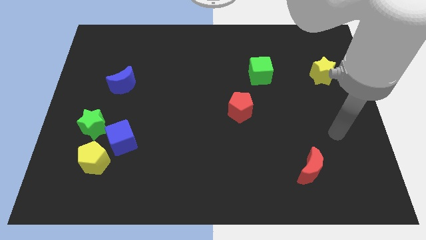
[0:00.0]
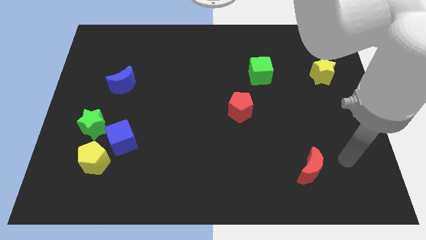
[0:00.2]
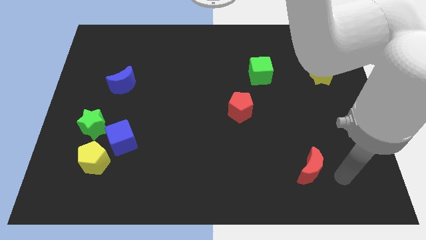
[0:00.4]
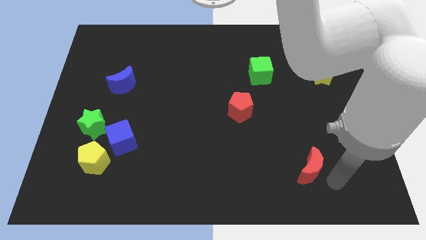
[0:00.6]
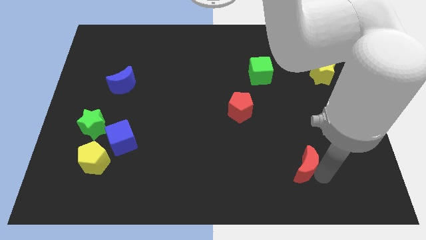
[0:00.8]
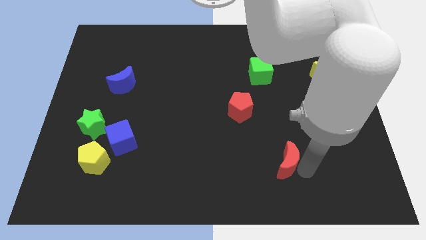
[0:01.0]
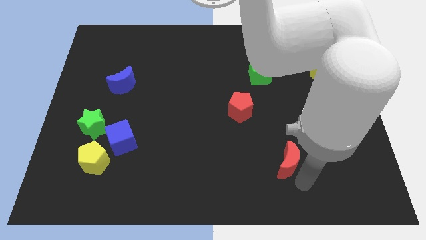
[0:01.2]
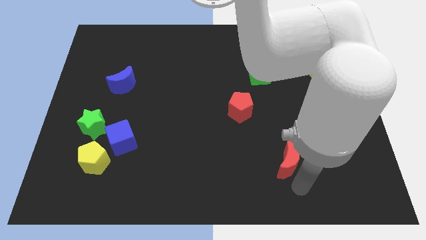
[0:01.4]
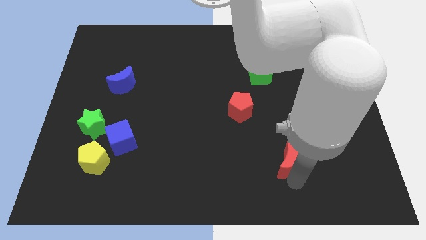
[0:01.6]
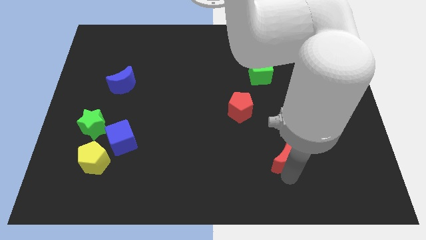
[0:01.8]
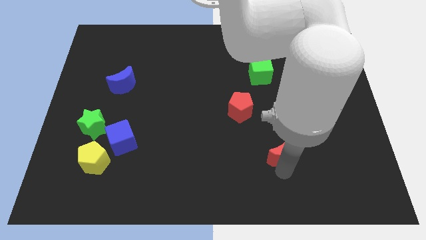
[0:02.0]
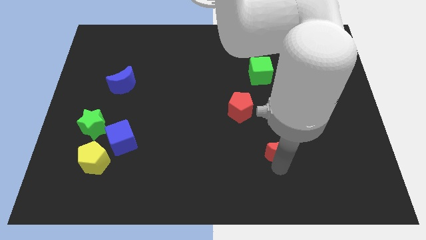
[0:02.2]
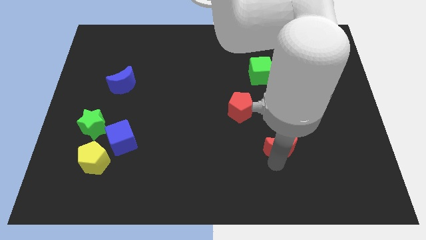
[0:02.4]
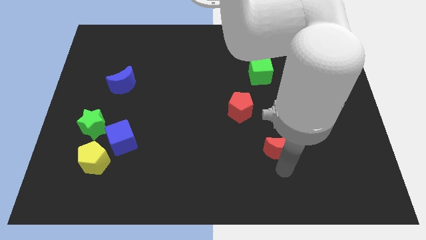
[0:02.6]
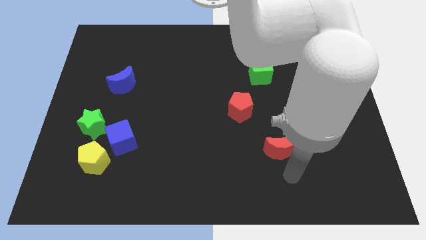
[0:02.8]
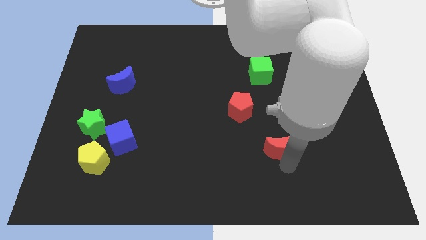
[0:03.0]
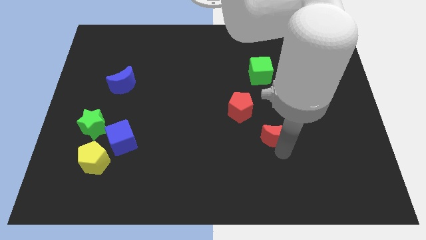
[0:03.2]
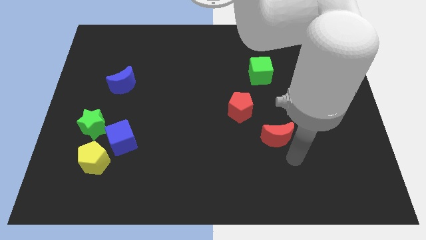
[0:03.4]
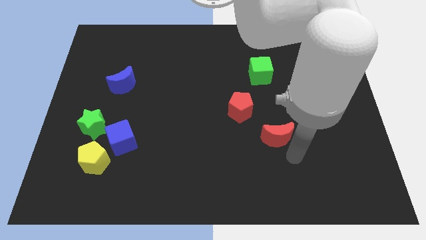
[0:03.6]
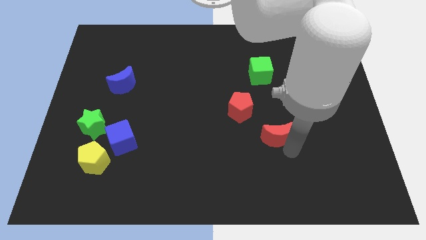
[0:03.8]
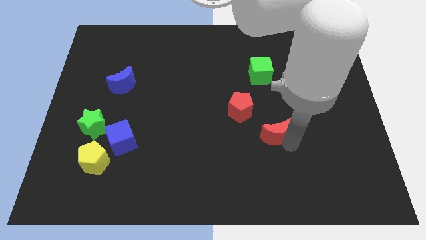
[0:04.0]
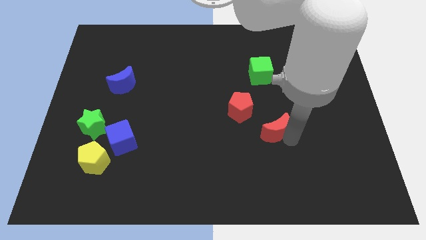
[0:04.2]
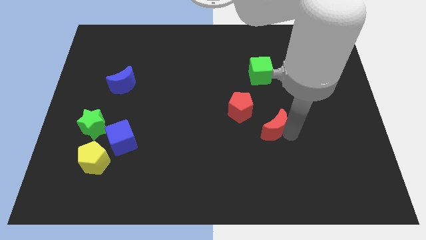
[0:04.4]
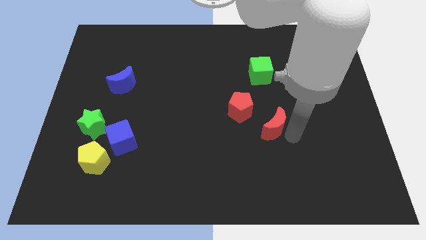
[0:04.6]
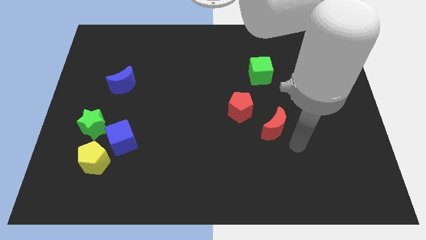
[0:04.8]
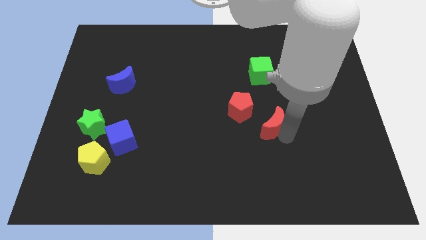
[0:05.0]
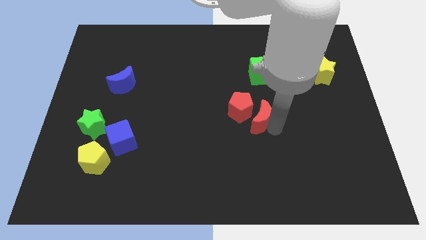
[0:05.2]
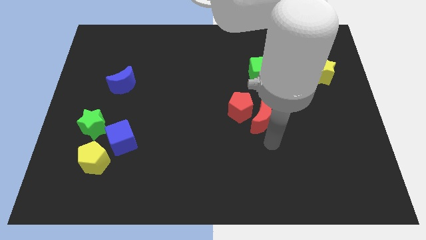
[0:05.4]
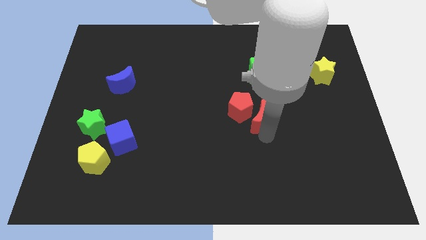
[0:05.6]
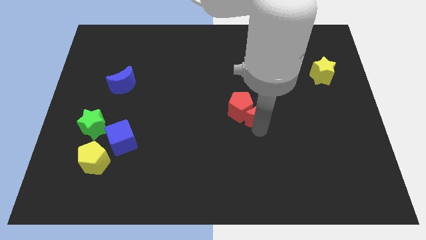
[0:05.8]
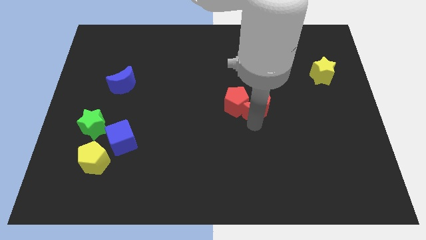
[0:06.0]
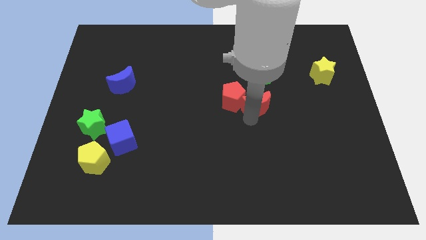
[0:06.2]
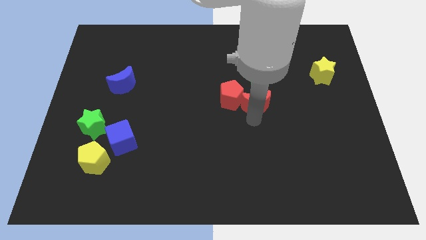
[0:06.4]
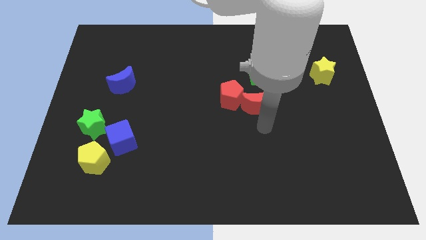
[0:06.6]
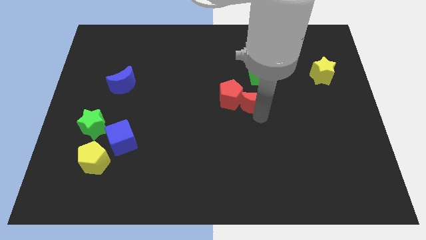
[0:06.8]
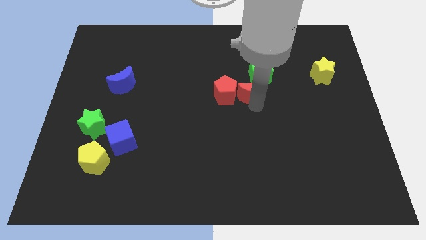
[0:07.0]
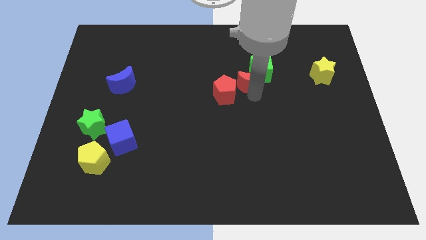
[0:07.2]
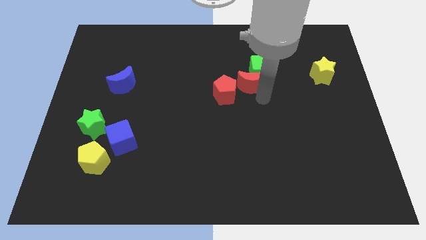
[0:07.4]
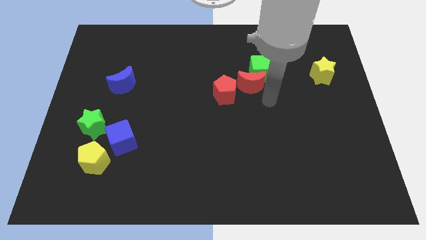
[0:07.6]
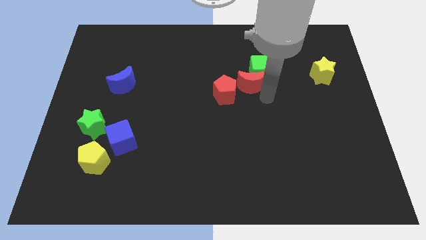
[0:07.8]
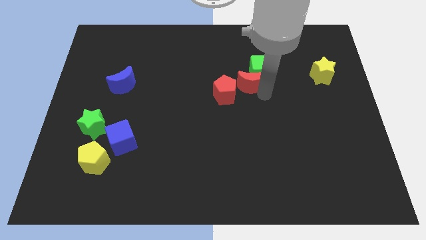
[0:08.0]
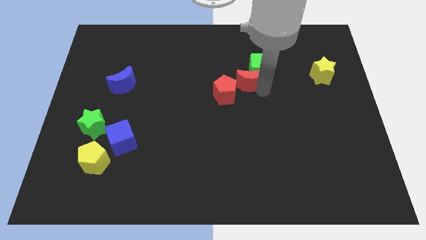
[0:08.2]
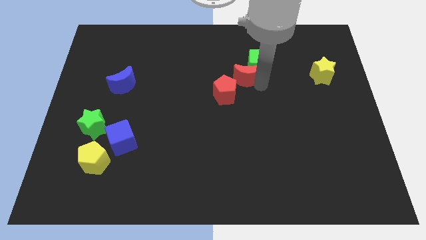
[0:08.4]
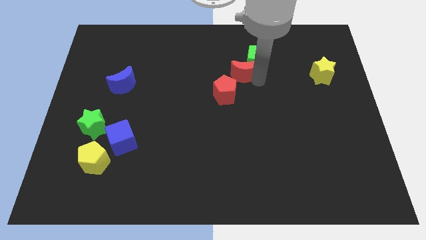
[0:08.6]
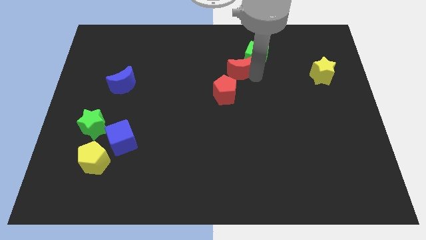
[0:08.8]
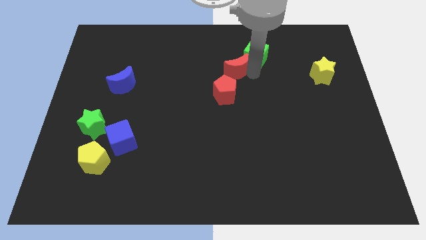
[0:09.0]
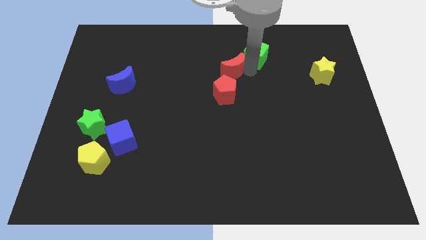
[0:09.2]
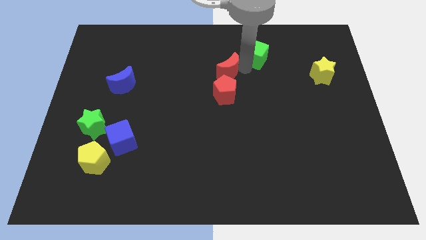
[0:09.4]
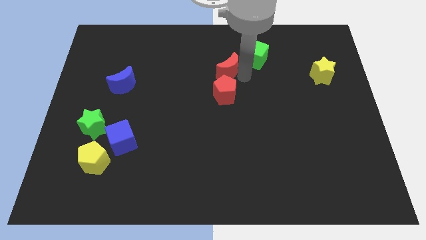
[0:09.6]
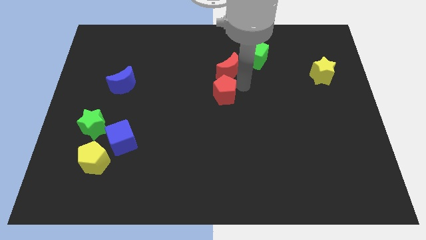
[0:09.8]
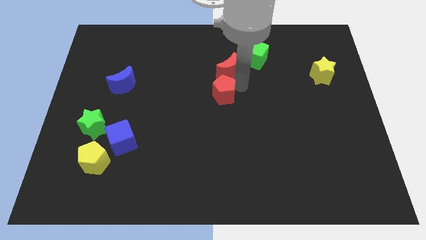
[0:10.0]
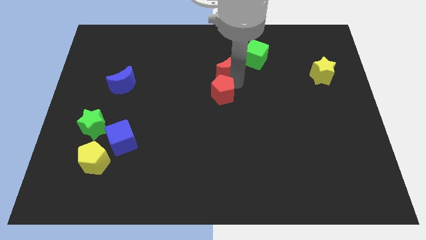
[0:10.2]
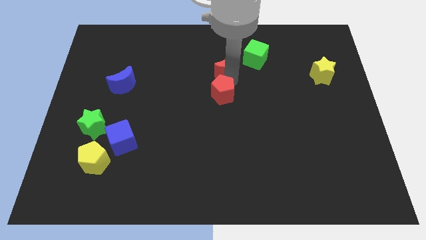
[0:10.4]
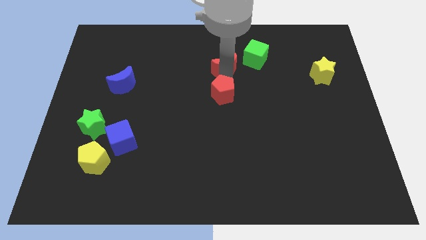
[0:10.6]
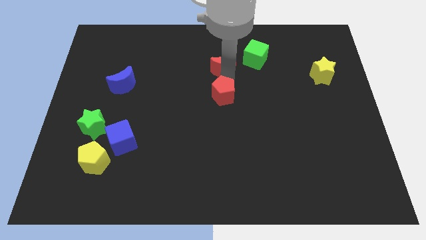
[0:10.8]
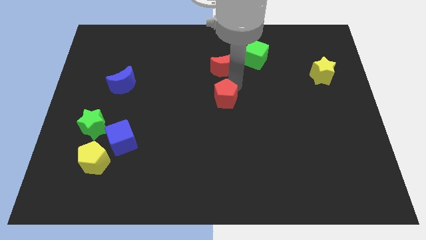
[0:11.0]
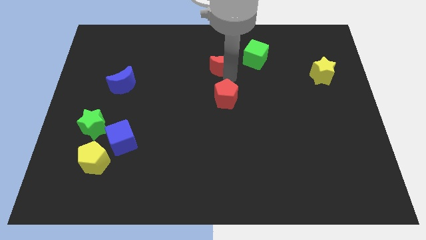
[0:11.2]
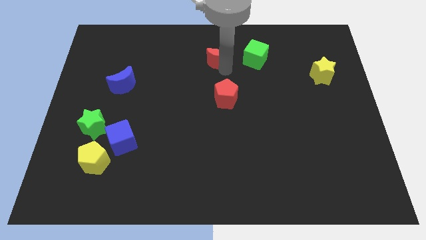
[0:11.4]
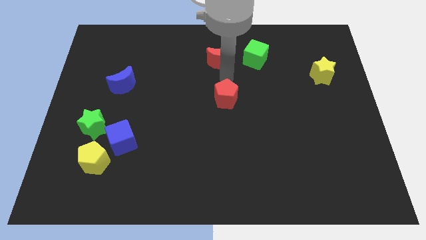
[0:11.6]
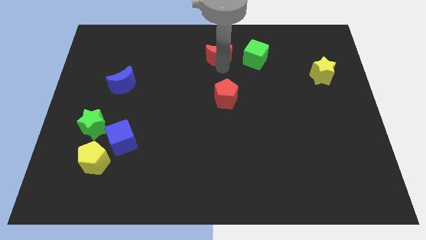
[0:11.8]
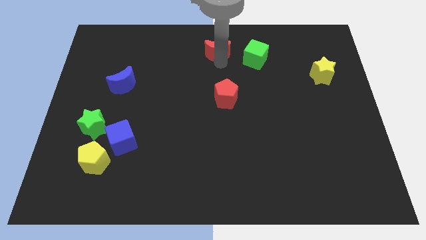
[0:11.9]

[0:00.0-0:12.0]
push the red moon to the top

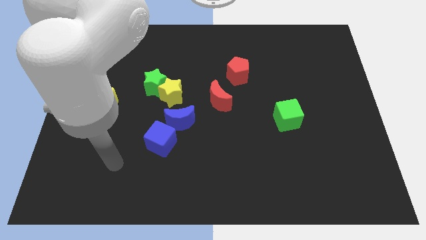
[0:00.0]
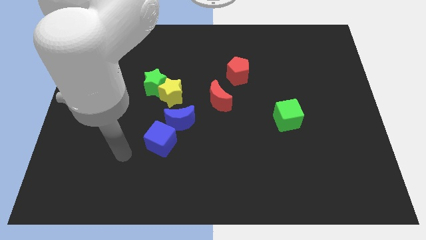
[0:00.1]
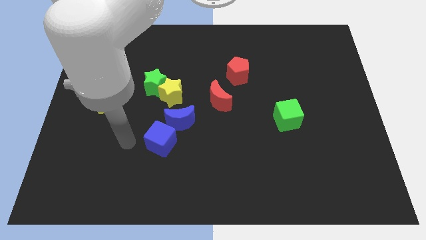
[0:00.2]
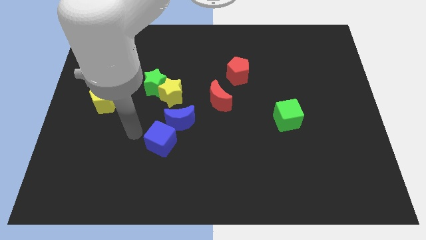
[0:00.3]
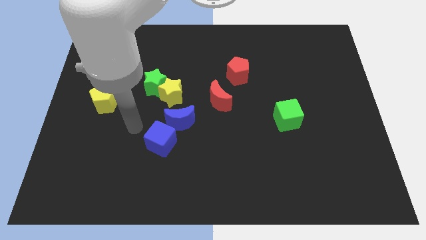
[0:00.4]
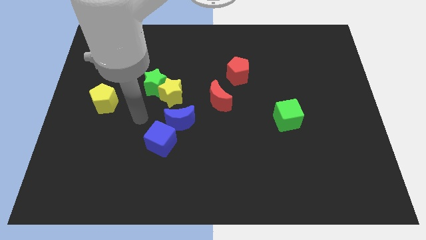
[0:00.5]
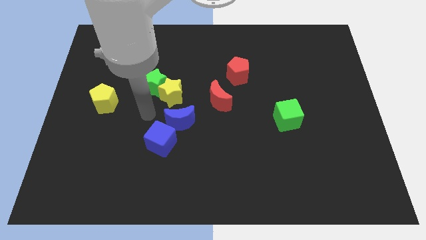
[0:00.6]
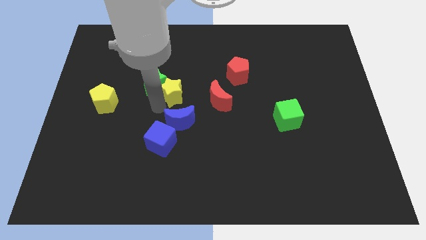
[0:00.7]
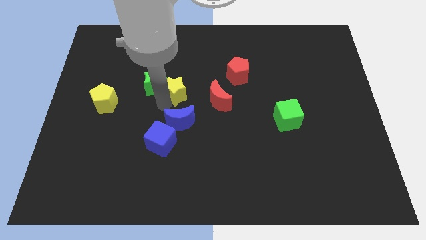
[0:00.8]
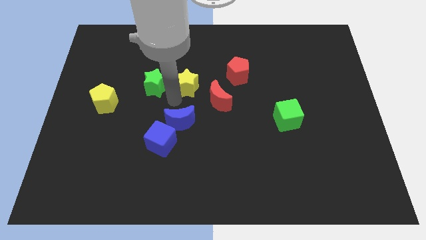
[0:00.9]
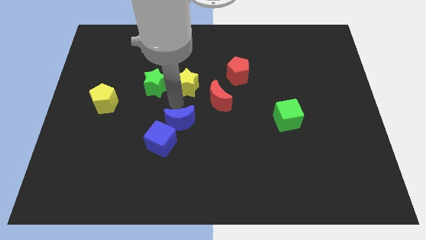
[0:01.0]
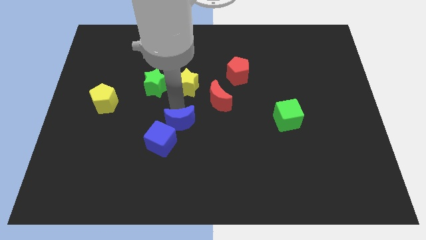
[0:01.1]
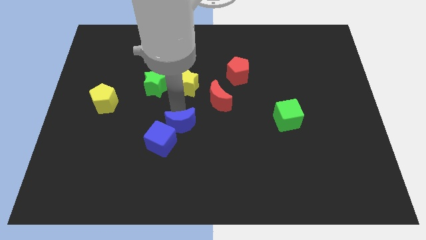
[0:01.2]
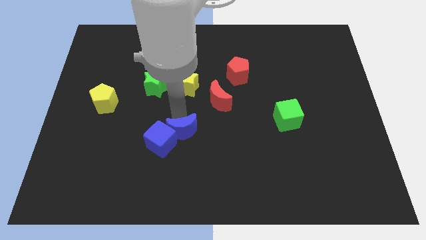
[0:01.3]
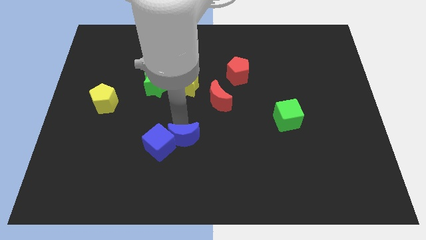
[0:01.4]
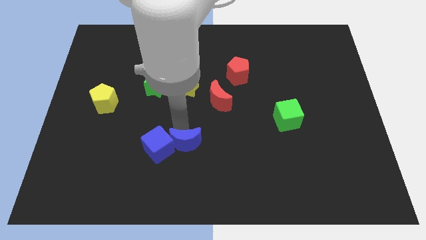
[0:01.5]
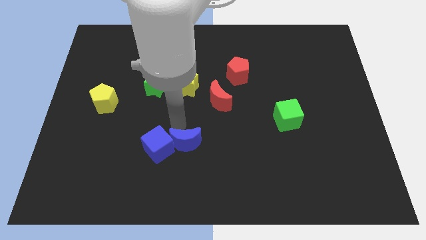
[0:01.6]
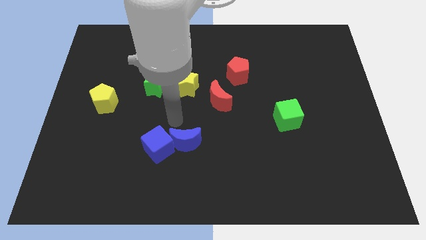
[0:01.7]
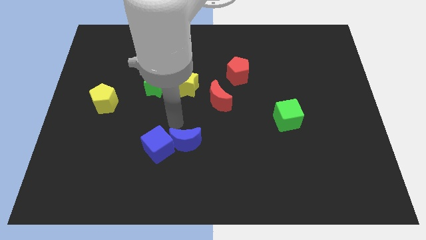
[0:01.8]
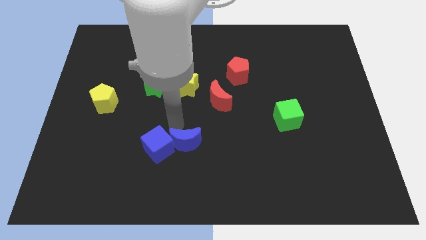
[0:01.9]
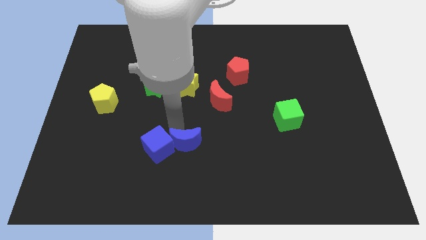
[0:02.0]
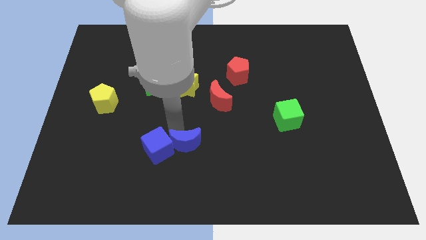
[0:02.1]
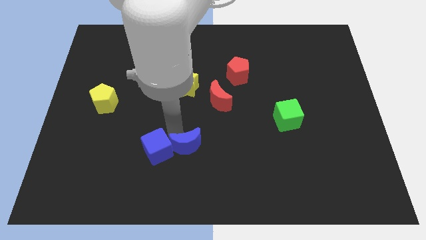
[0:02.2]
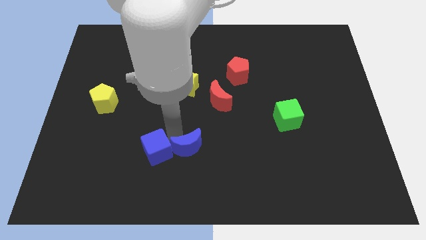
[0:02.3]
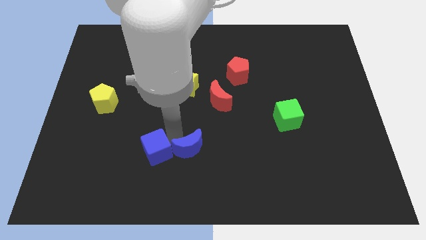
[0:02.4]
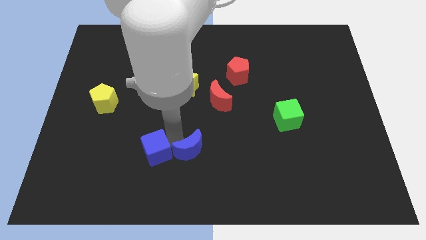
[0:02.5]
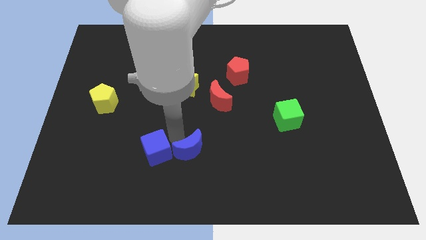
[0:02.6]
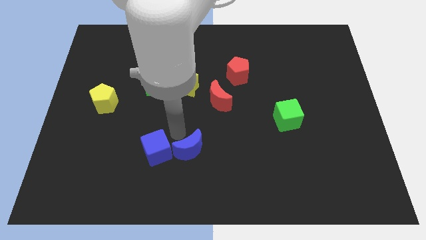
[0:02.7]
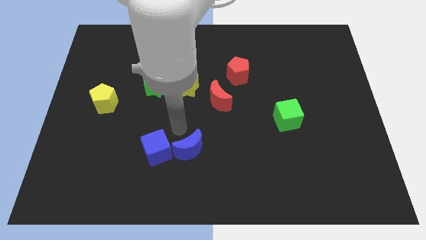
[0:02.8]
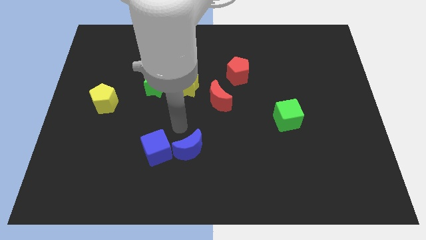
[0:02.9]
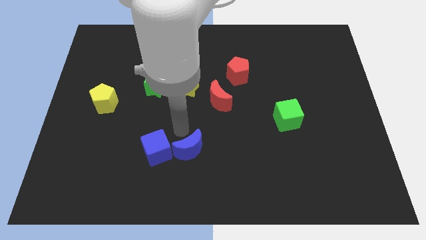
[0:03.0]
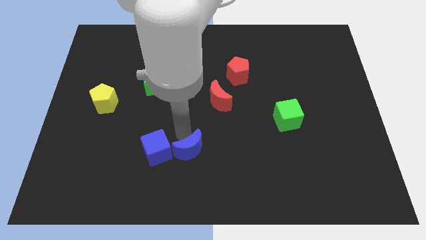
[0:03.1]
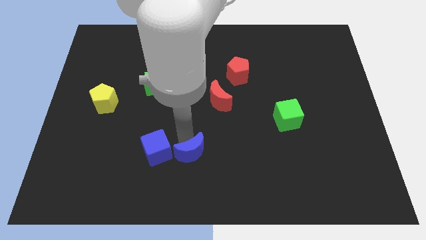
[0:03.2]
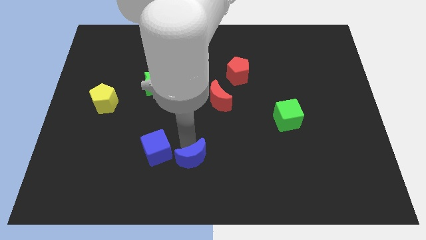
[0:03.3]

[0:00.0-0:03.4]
slide the blue moon to the bottom
